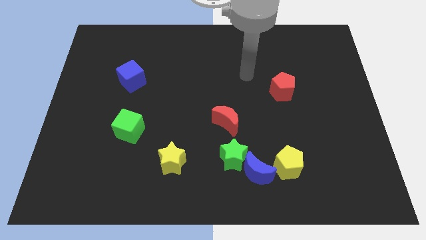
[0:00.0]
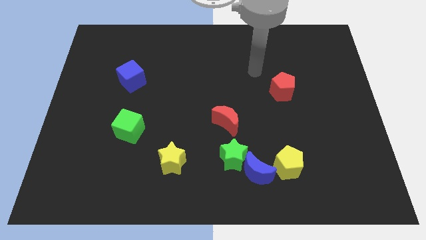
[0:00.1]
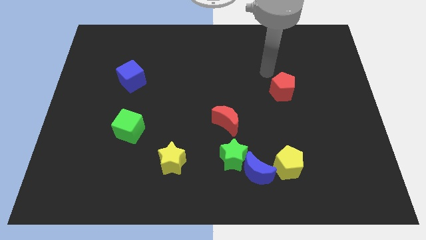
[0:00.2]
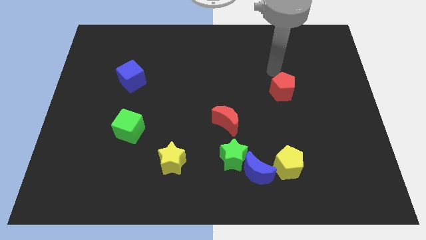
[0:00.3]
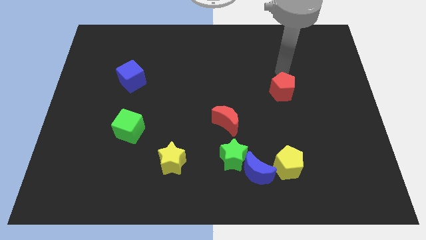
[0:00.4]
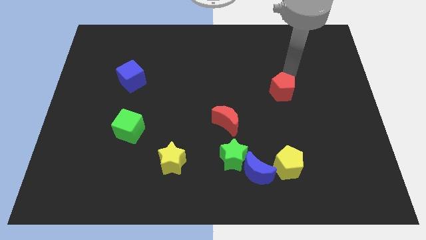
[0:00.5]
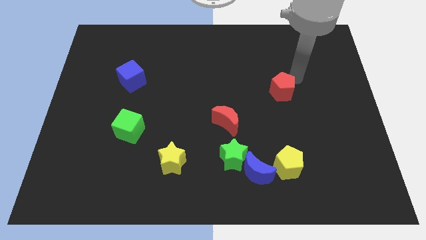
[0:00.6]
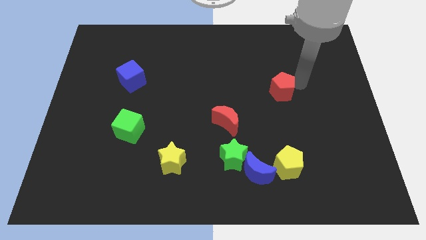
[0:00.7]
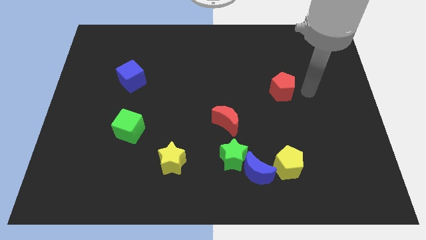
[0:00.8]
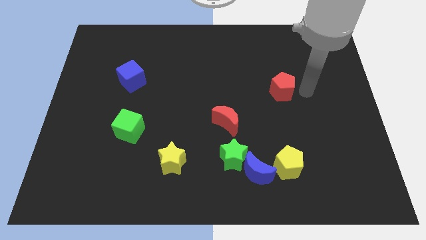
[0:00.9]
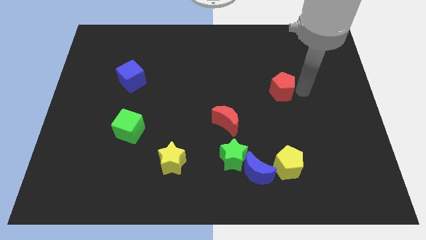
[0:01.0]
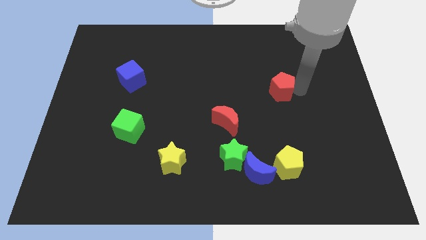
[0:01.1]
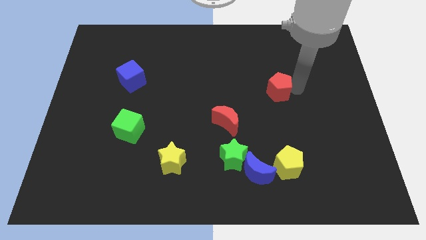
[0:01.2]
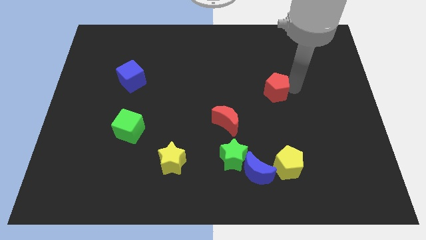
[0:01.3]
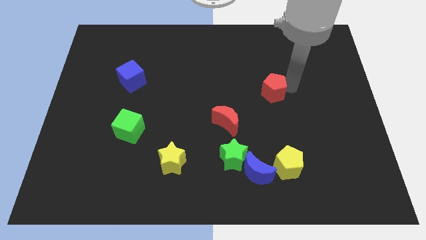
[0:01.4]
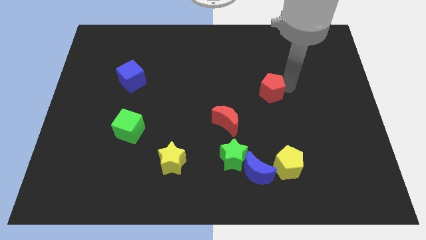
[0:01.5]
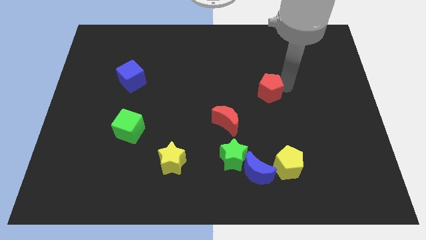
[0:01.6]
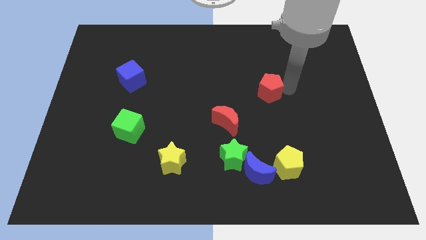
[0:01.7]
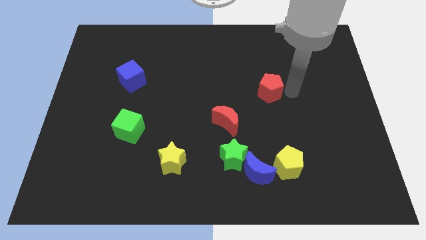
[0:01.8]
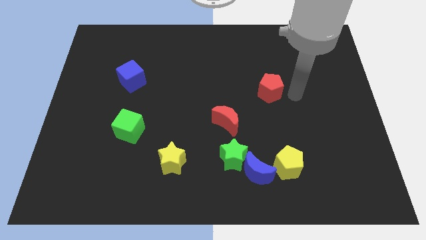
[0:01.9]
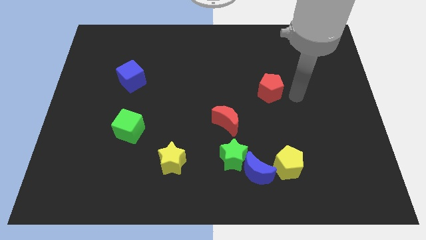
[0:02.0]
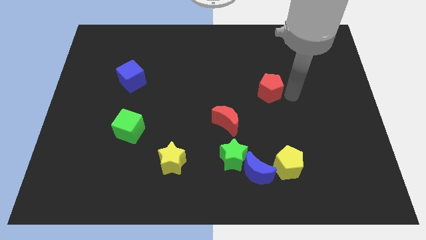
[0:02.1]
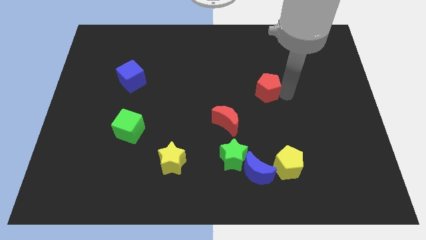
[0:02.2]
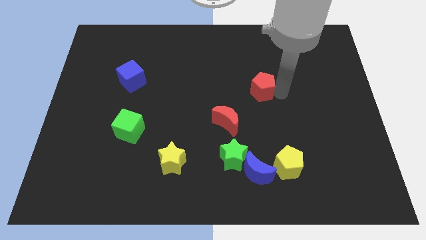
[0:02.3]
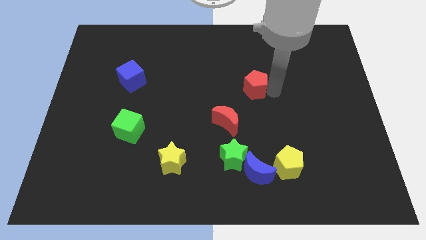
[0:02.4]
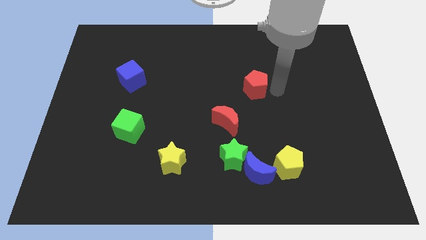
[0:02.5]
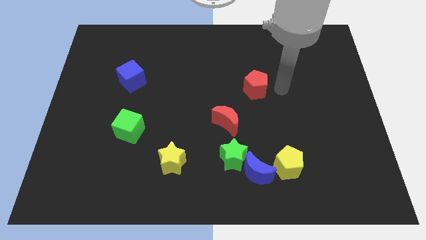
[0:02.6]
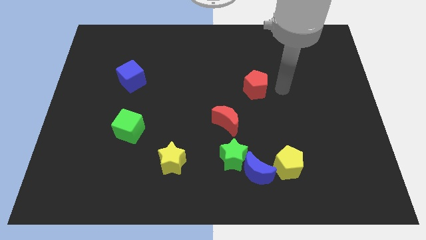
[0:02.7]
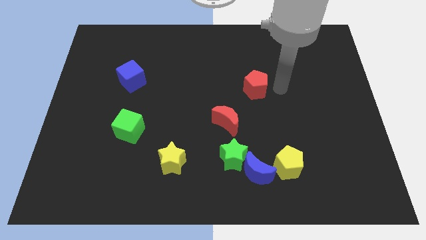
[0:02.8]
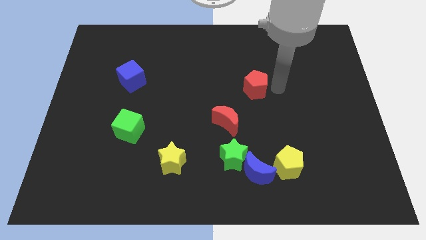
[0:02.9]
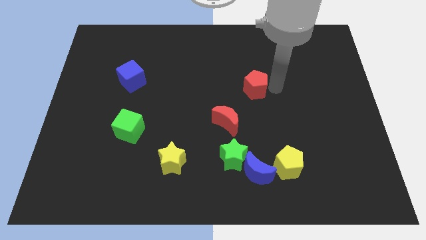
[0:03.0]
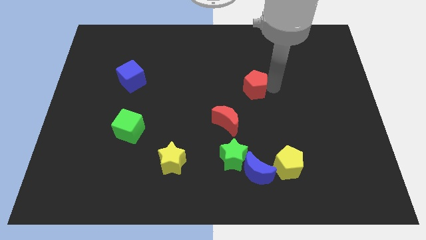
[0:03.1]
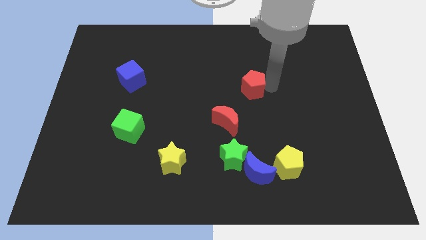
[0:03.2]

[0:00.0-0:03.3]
push the red pentagon to the left a bit

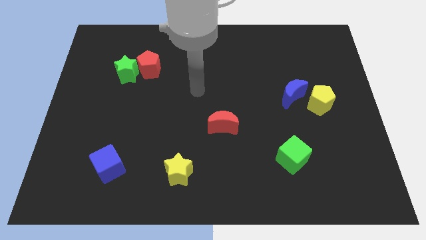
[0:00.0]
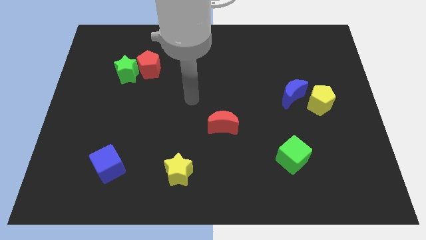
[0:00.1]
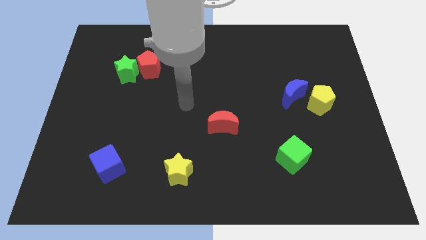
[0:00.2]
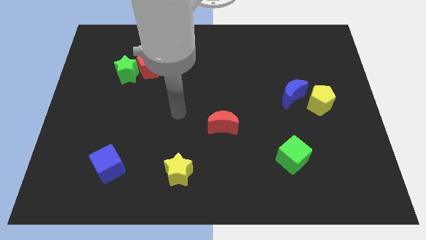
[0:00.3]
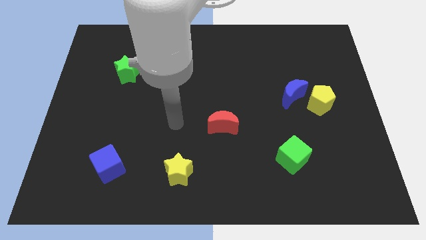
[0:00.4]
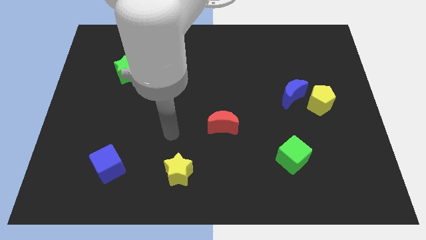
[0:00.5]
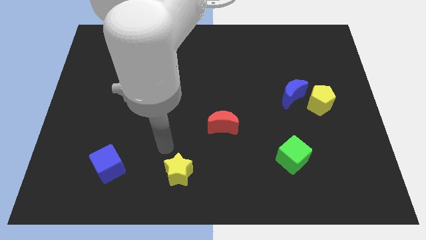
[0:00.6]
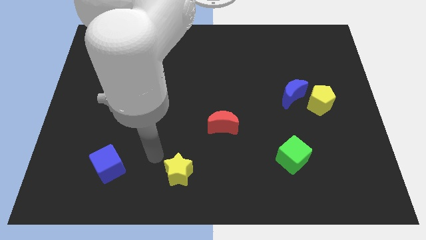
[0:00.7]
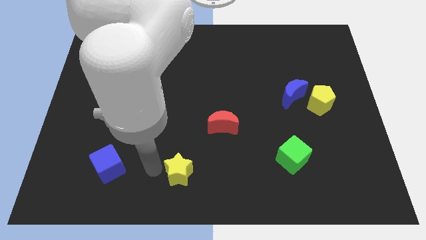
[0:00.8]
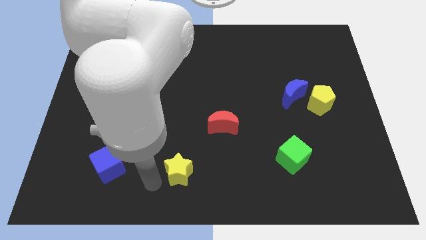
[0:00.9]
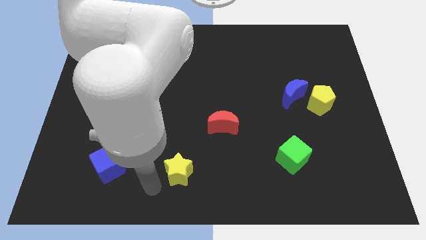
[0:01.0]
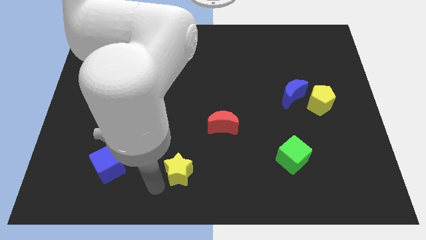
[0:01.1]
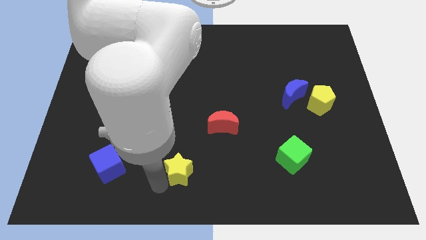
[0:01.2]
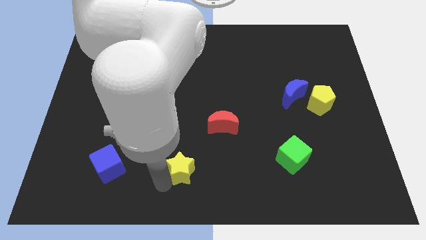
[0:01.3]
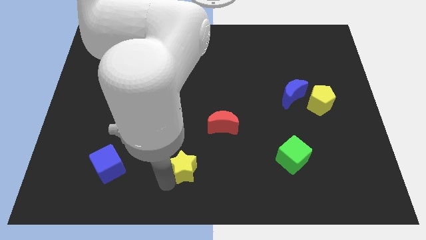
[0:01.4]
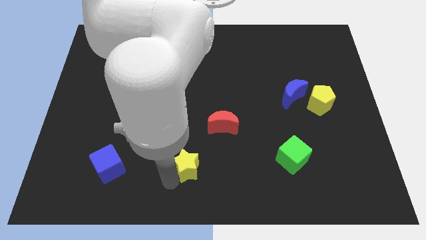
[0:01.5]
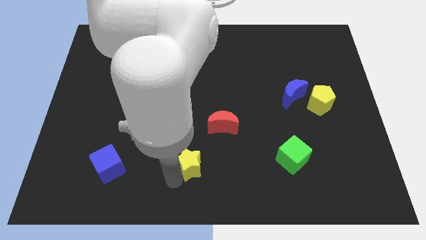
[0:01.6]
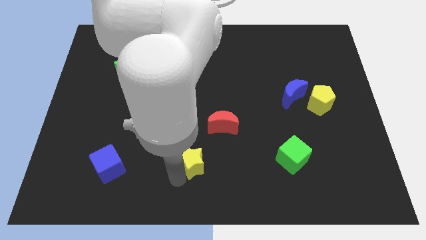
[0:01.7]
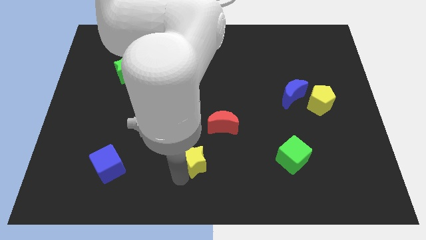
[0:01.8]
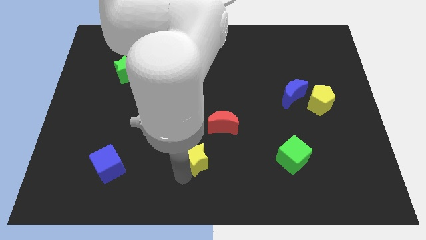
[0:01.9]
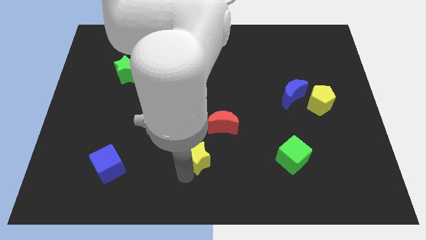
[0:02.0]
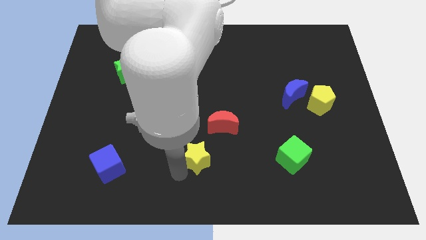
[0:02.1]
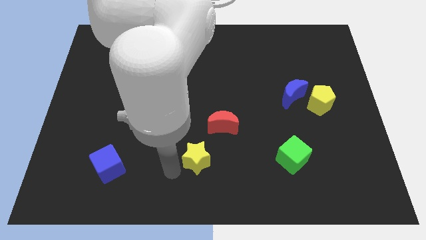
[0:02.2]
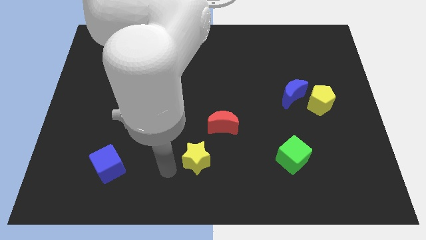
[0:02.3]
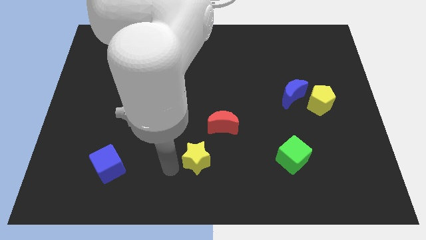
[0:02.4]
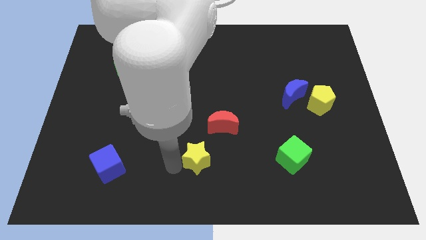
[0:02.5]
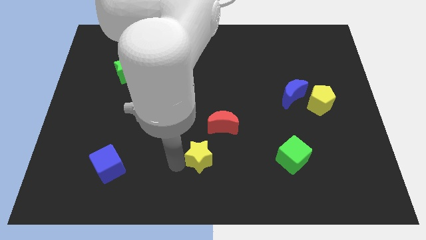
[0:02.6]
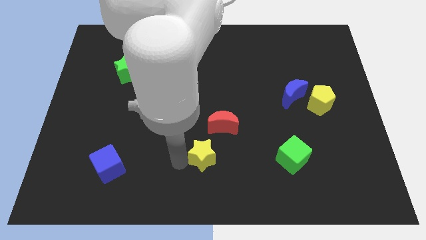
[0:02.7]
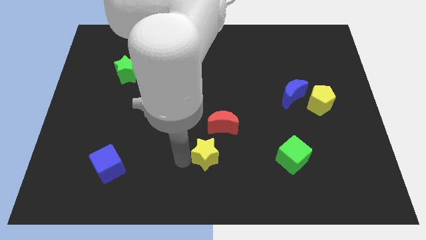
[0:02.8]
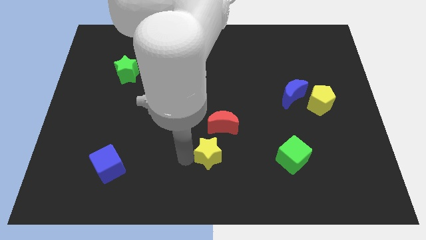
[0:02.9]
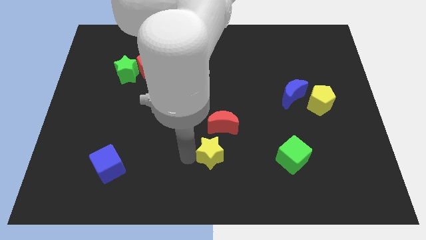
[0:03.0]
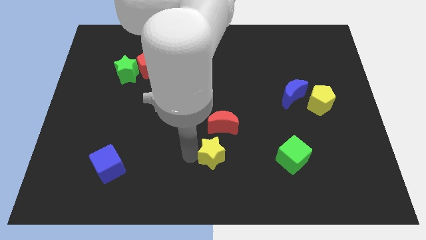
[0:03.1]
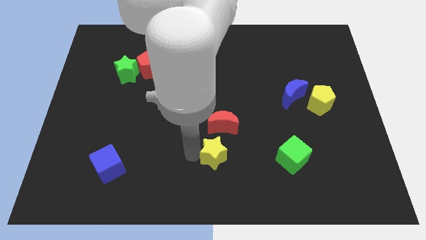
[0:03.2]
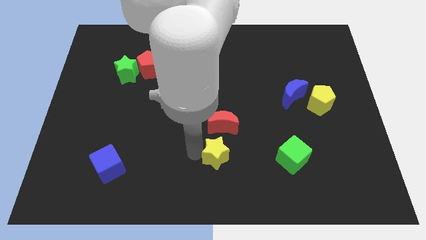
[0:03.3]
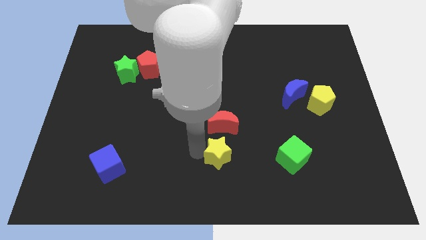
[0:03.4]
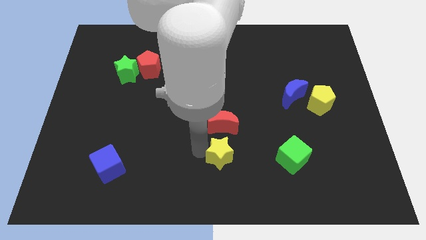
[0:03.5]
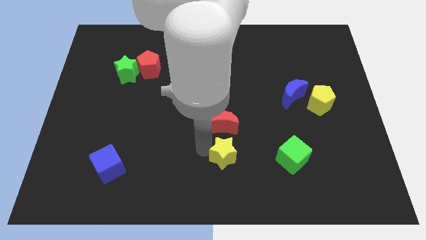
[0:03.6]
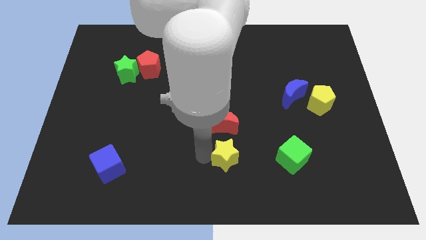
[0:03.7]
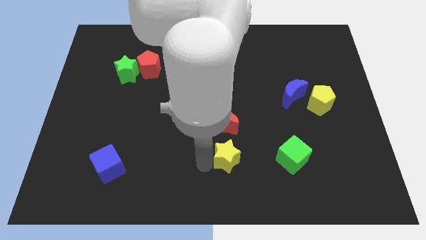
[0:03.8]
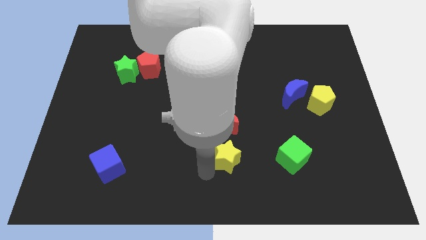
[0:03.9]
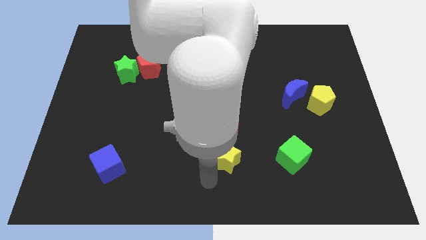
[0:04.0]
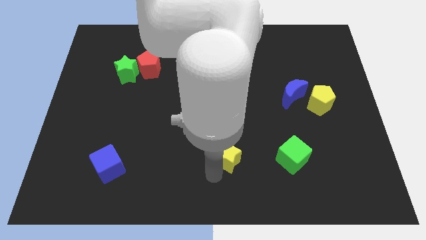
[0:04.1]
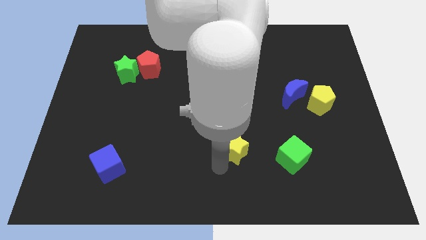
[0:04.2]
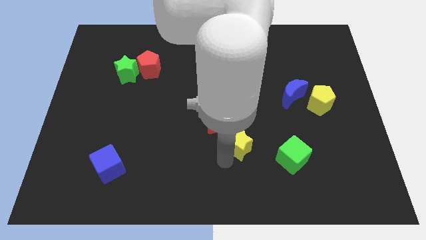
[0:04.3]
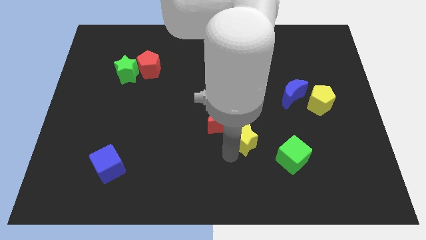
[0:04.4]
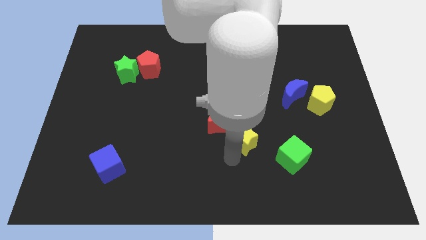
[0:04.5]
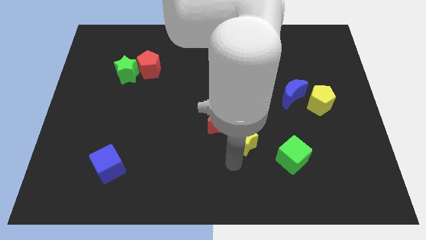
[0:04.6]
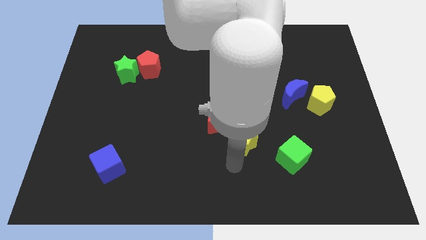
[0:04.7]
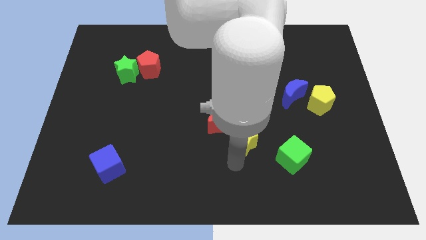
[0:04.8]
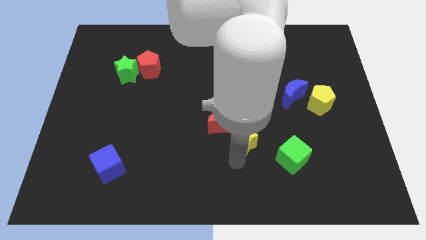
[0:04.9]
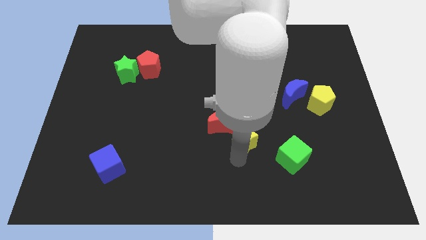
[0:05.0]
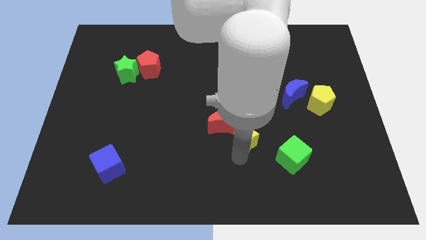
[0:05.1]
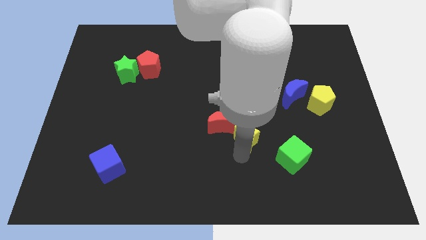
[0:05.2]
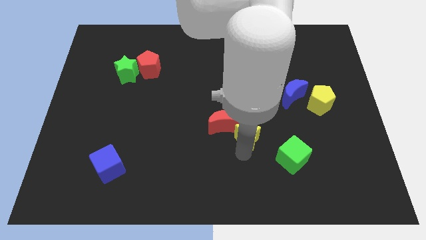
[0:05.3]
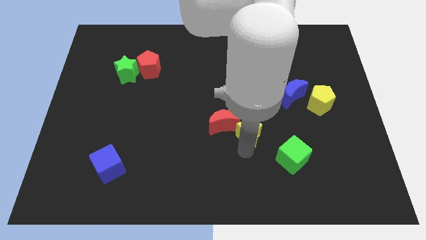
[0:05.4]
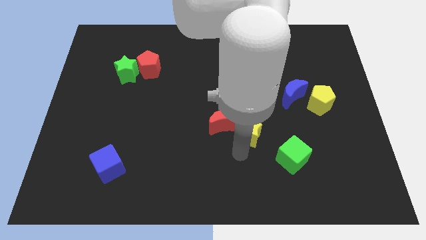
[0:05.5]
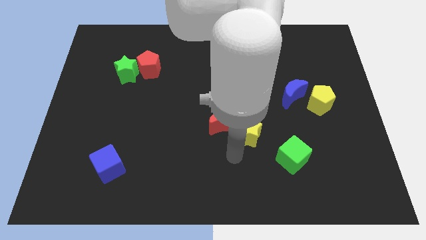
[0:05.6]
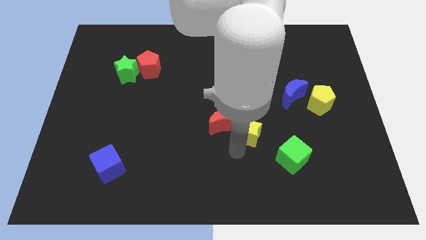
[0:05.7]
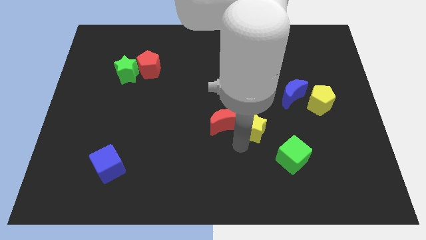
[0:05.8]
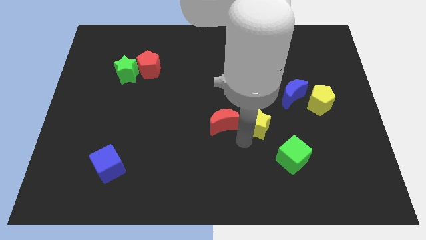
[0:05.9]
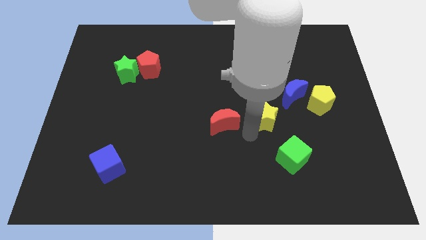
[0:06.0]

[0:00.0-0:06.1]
push the yellow star up and right diagonally
